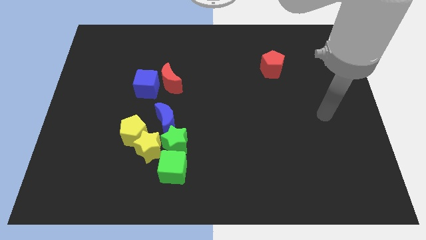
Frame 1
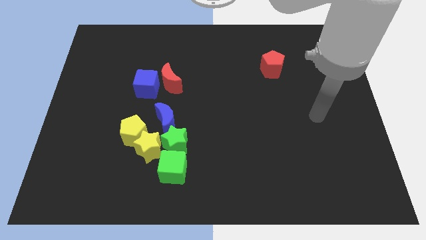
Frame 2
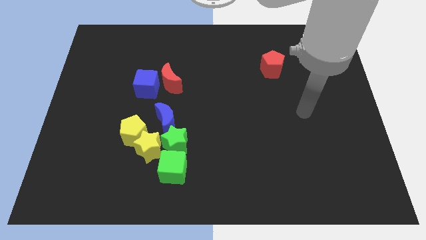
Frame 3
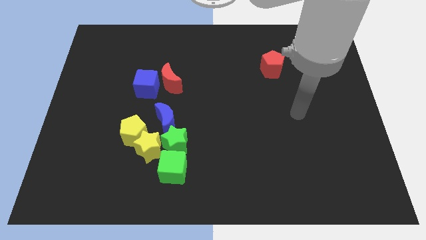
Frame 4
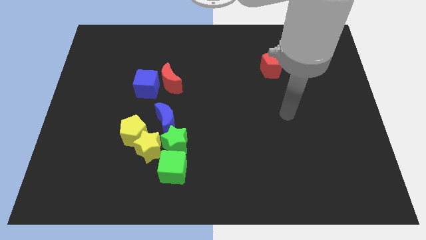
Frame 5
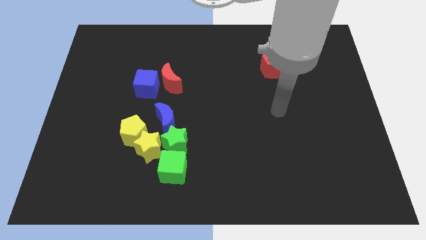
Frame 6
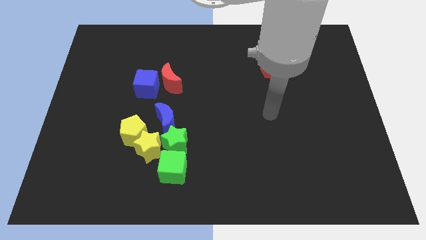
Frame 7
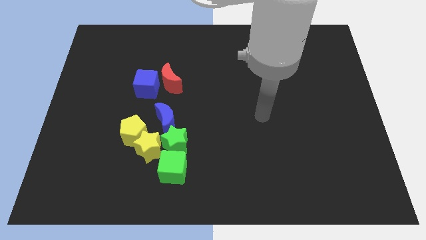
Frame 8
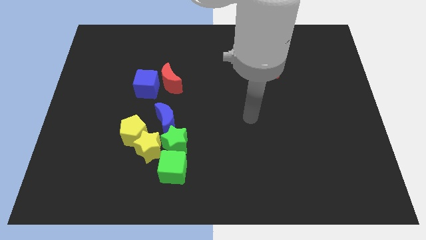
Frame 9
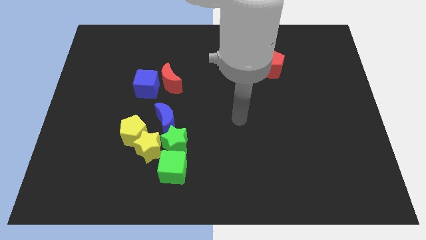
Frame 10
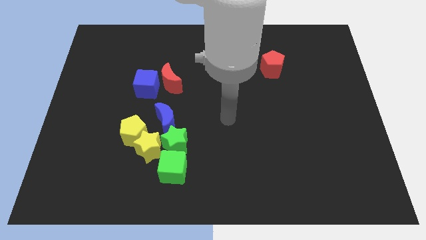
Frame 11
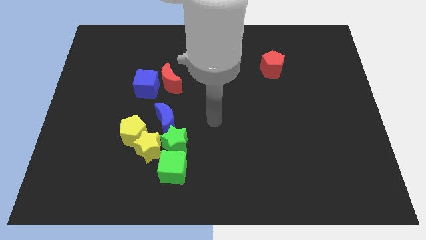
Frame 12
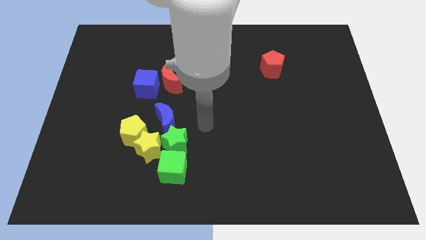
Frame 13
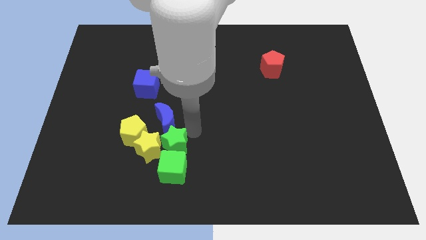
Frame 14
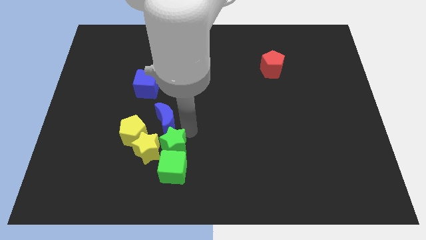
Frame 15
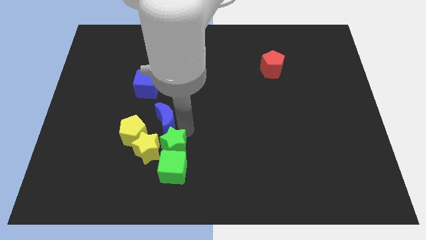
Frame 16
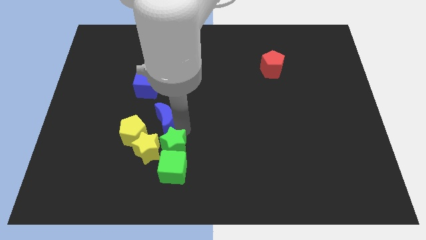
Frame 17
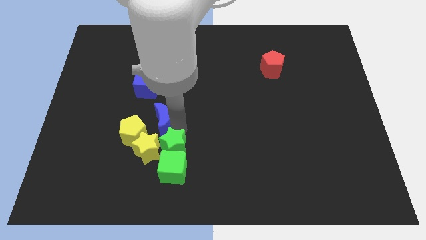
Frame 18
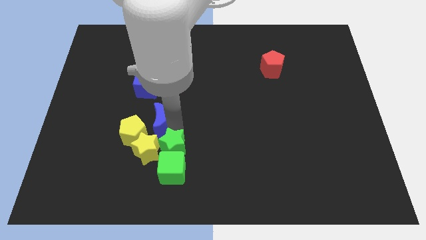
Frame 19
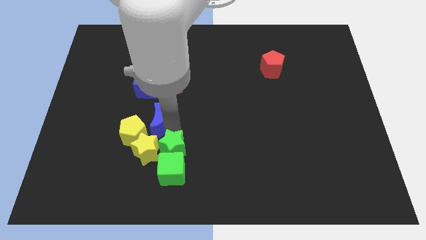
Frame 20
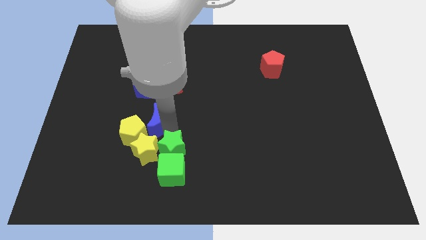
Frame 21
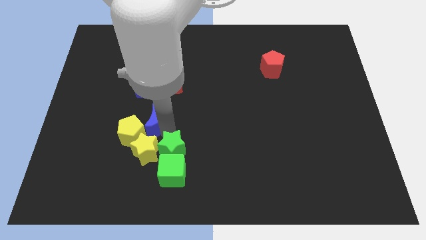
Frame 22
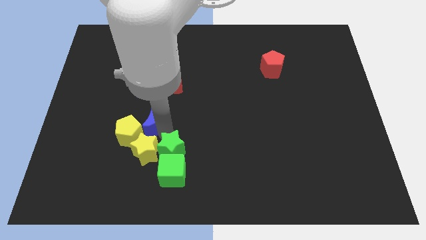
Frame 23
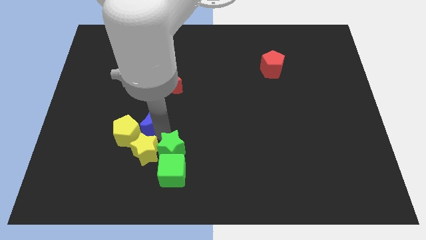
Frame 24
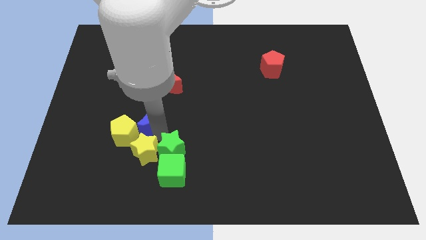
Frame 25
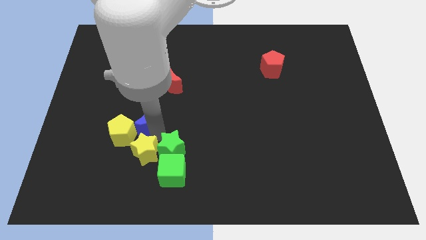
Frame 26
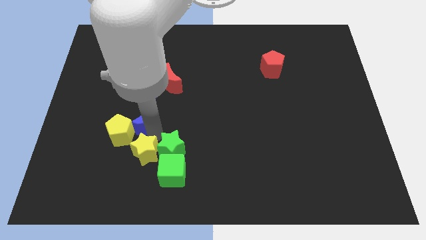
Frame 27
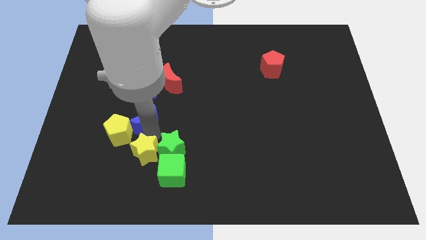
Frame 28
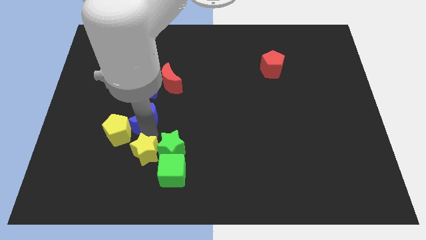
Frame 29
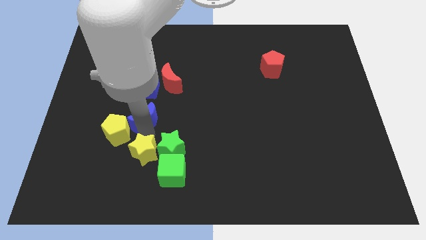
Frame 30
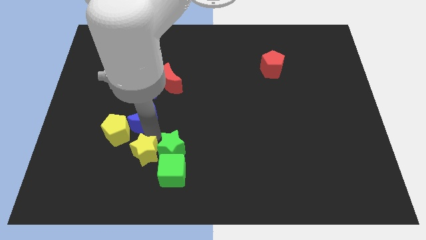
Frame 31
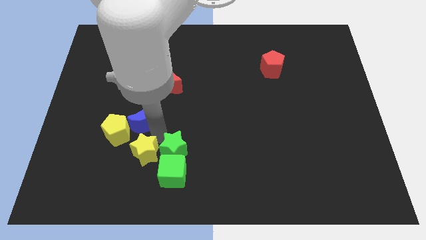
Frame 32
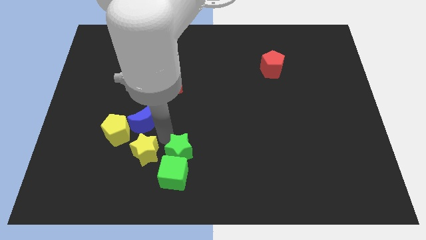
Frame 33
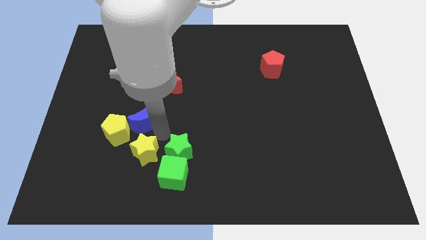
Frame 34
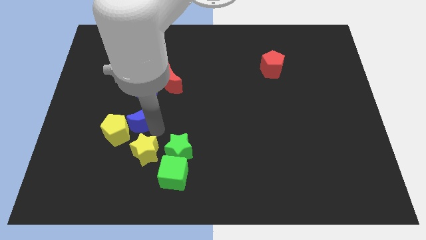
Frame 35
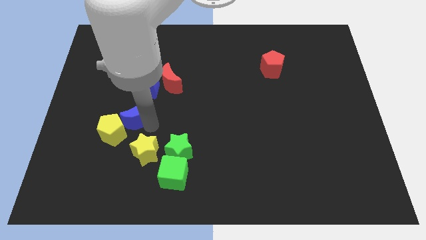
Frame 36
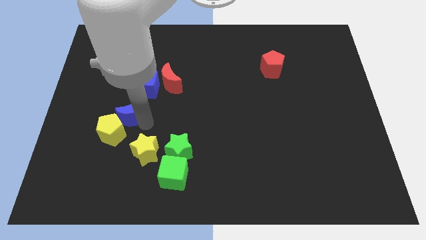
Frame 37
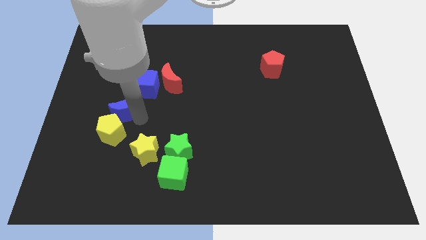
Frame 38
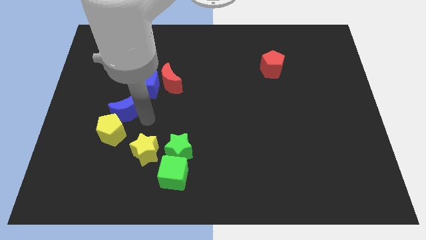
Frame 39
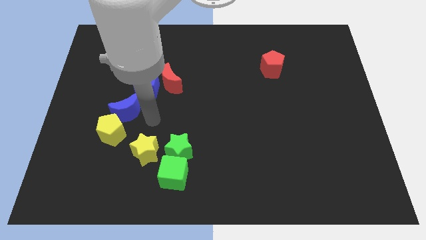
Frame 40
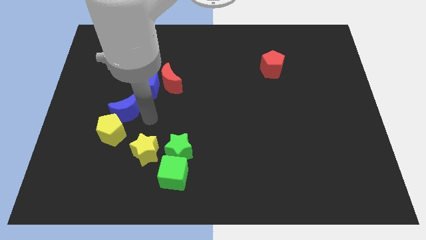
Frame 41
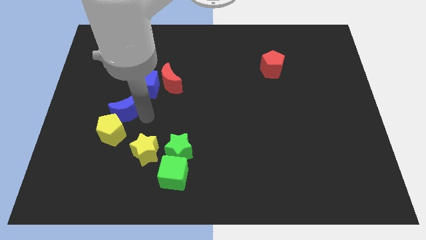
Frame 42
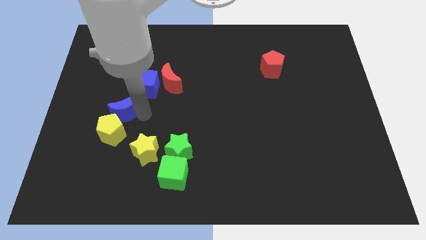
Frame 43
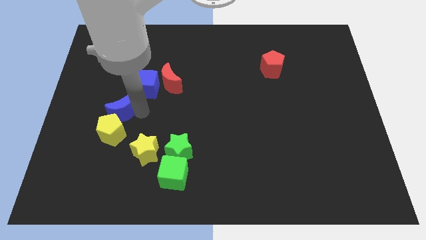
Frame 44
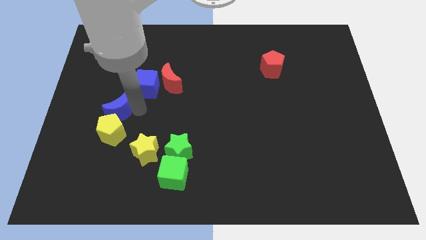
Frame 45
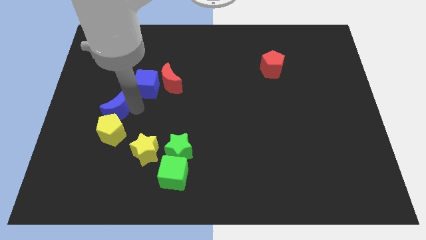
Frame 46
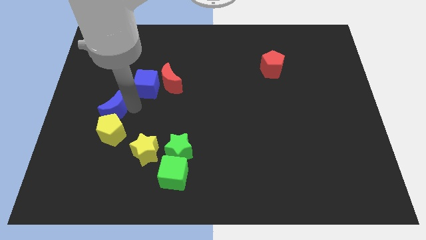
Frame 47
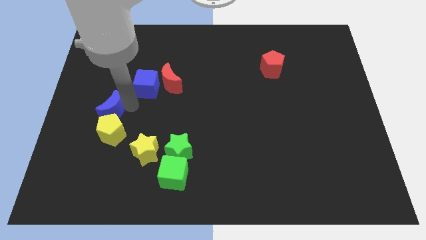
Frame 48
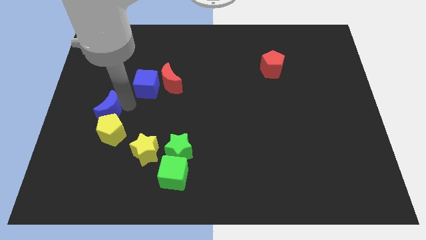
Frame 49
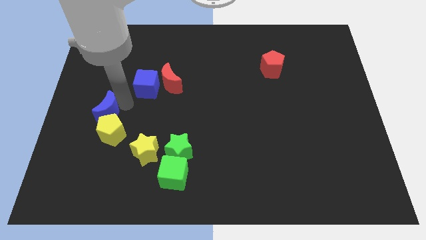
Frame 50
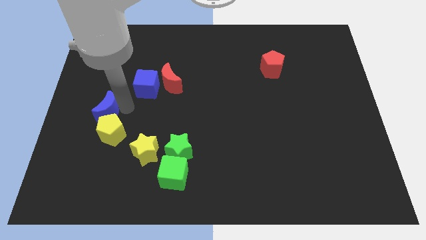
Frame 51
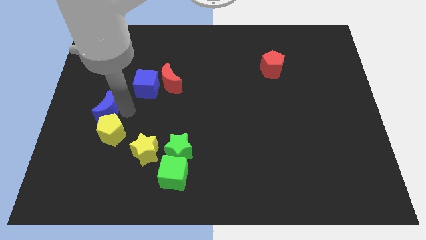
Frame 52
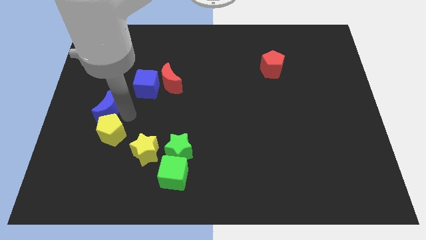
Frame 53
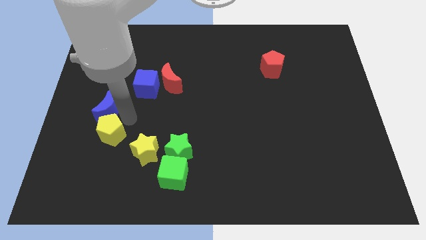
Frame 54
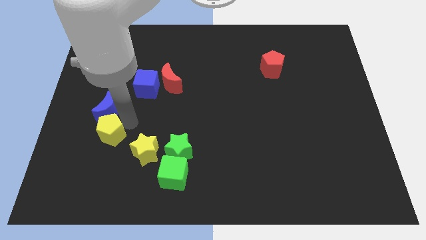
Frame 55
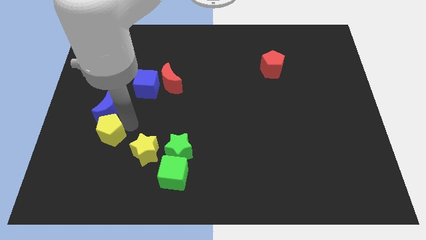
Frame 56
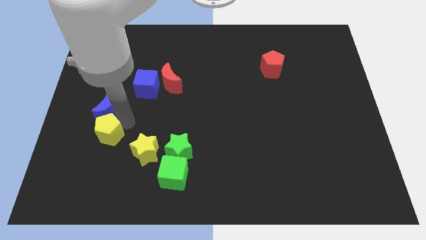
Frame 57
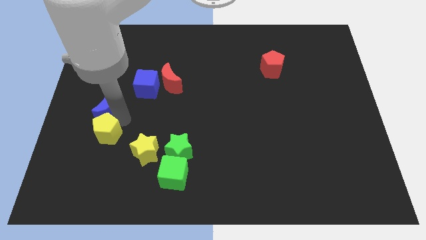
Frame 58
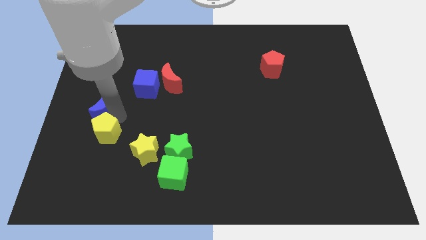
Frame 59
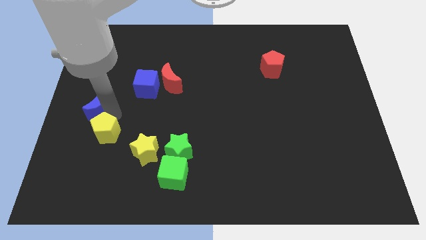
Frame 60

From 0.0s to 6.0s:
push the blue moon to the center left

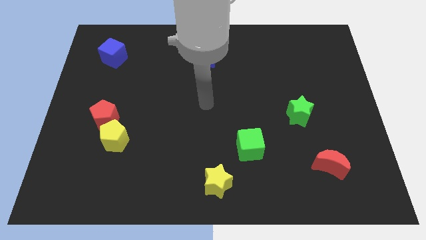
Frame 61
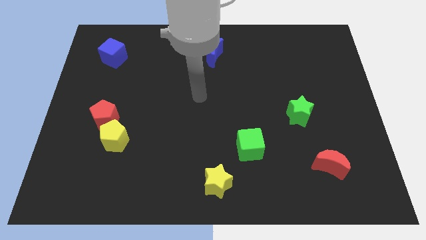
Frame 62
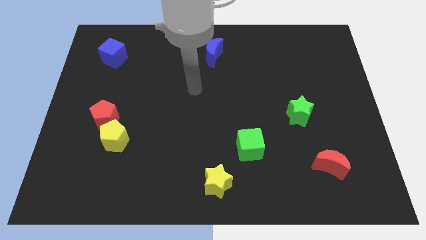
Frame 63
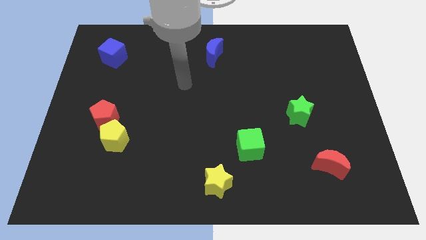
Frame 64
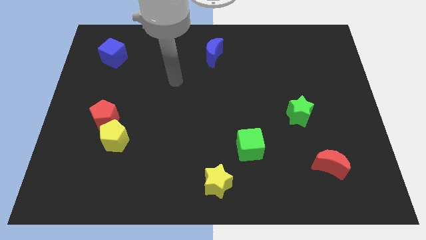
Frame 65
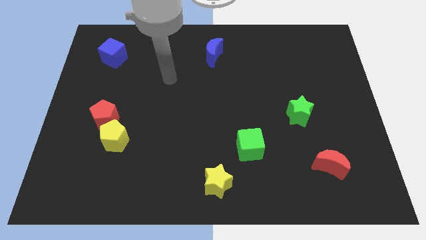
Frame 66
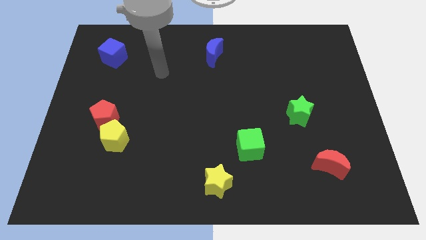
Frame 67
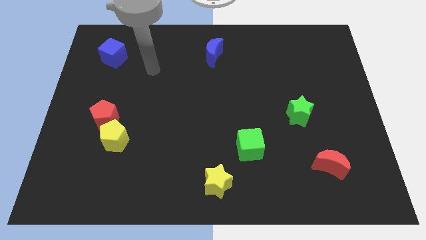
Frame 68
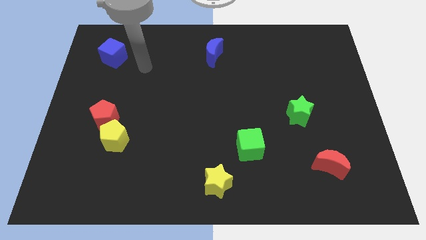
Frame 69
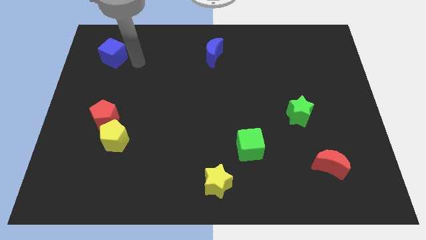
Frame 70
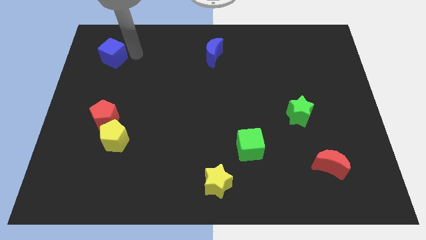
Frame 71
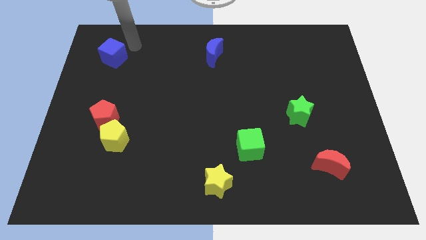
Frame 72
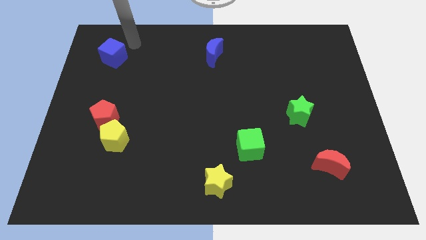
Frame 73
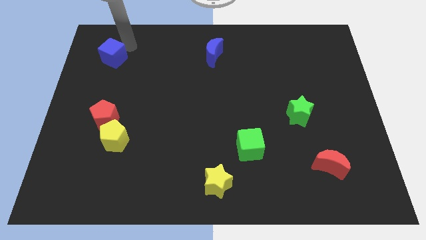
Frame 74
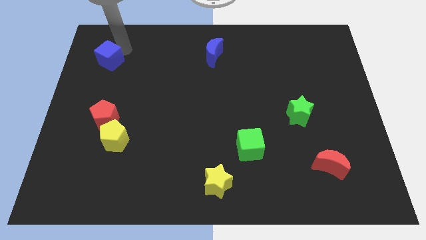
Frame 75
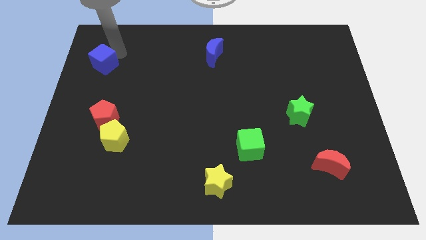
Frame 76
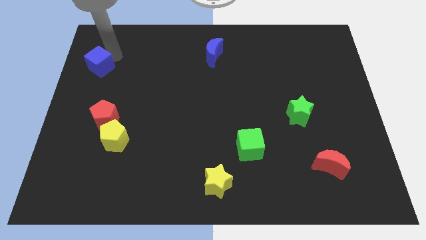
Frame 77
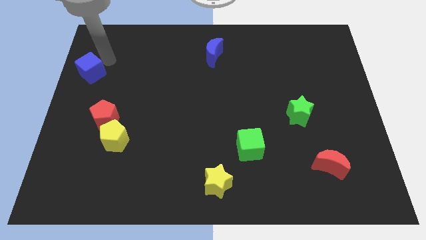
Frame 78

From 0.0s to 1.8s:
put the blue cube to the left side
